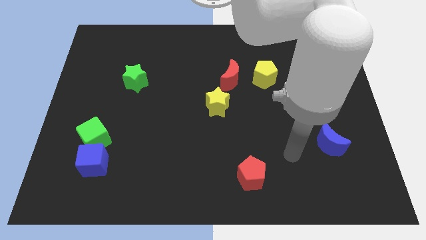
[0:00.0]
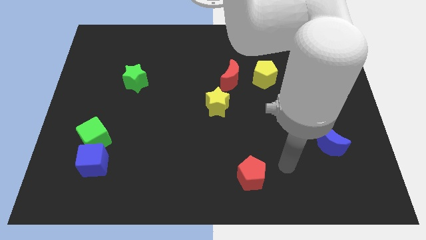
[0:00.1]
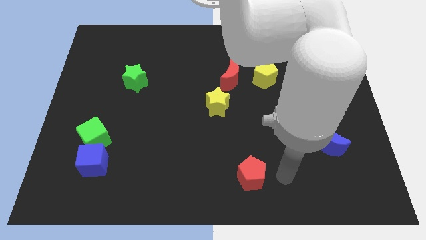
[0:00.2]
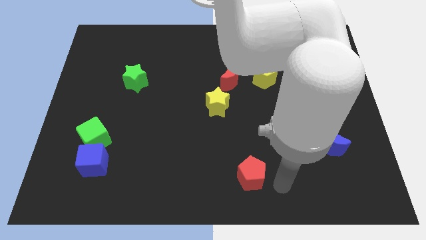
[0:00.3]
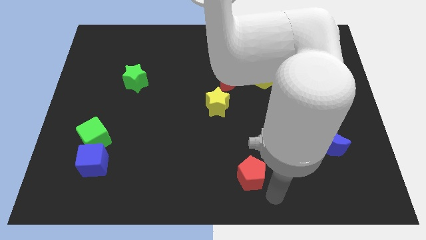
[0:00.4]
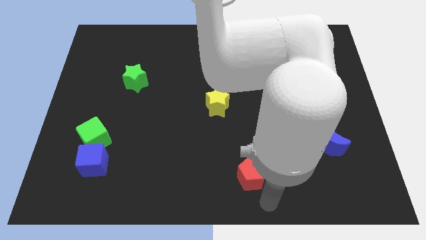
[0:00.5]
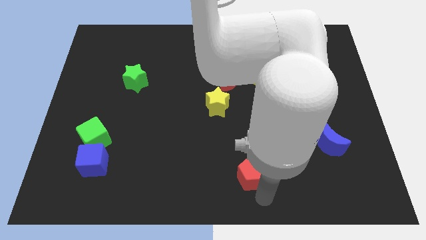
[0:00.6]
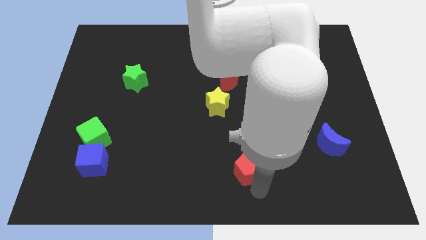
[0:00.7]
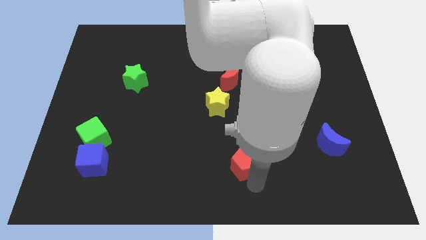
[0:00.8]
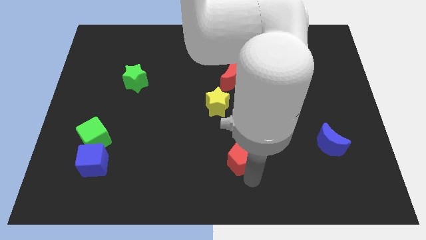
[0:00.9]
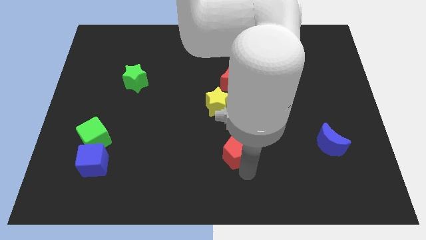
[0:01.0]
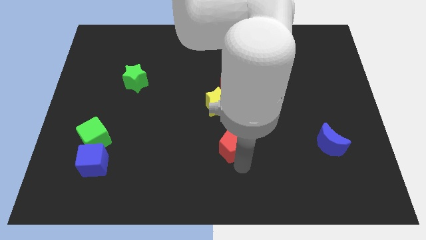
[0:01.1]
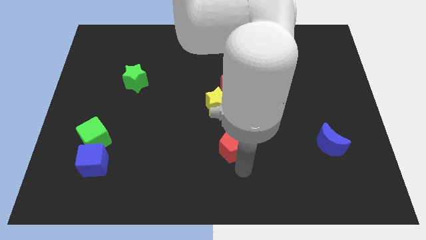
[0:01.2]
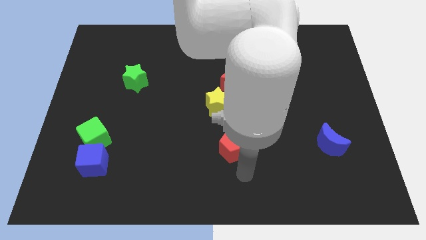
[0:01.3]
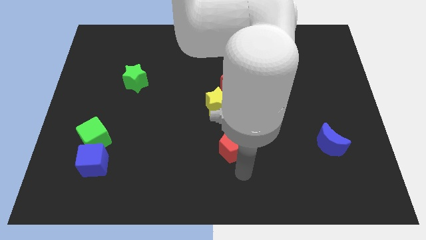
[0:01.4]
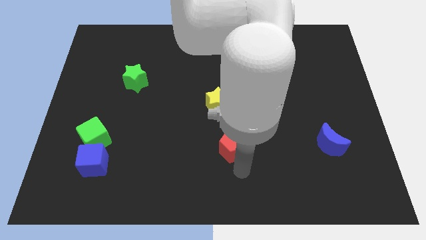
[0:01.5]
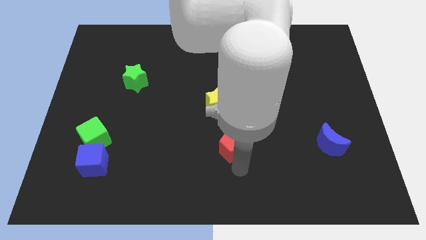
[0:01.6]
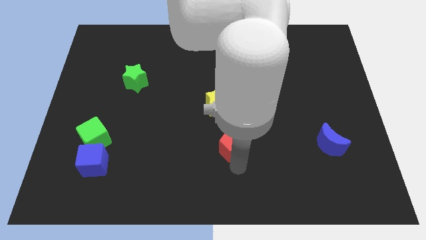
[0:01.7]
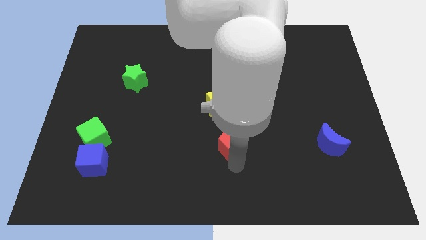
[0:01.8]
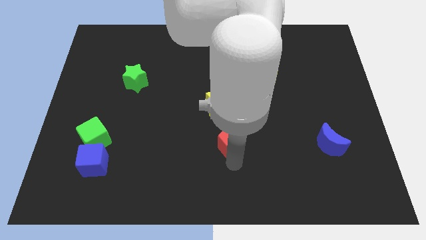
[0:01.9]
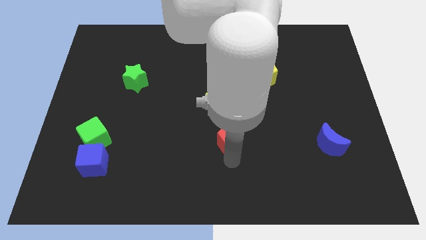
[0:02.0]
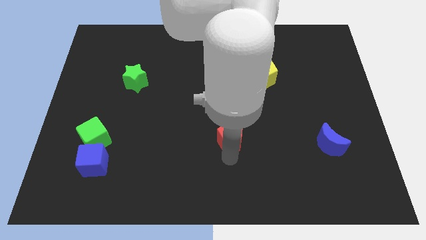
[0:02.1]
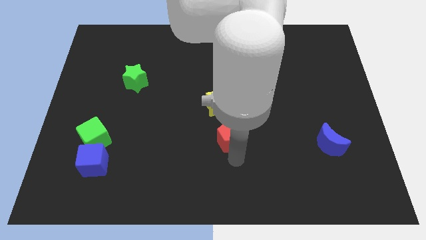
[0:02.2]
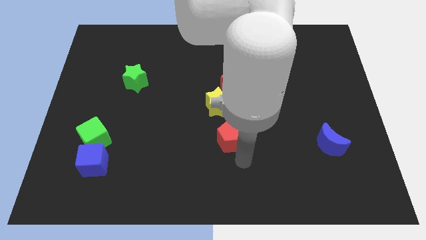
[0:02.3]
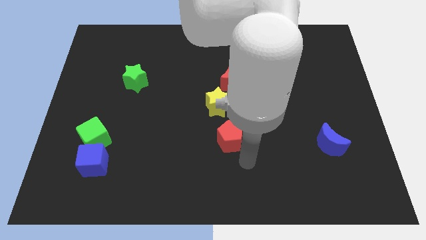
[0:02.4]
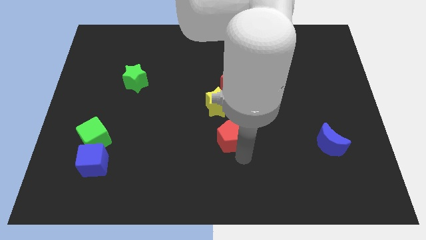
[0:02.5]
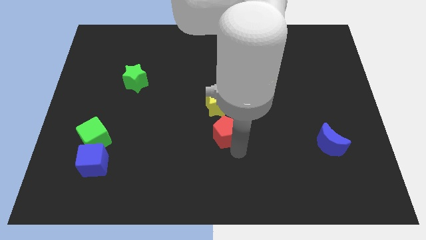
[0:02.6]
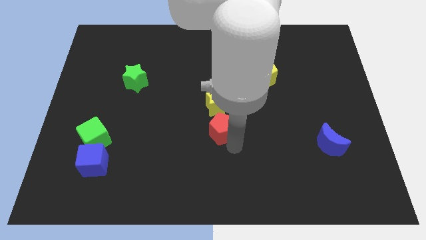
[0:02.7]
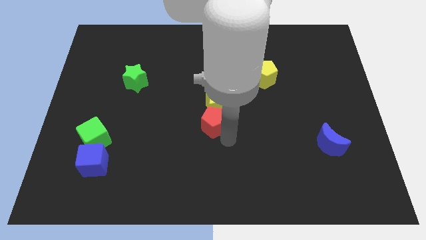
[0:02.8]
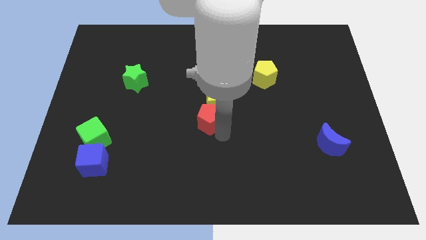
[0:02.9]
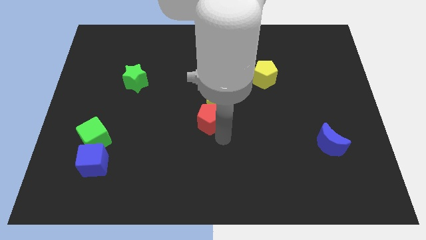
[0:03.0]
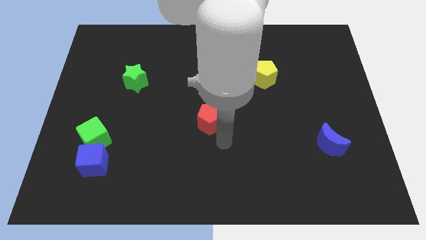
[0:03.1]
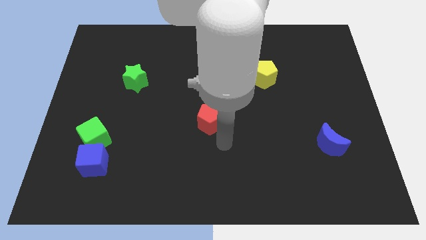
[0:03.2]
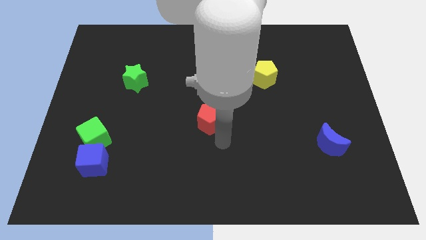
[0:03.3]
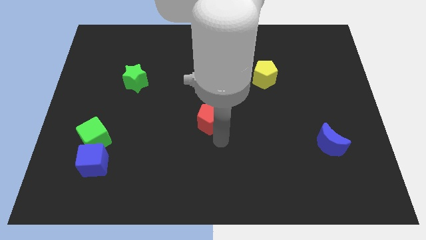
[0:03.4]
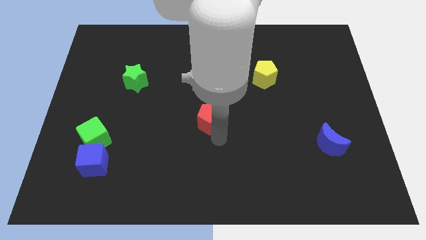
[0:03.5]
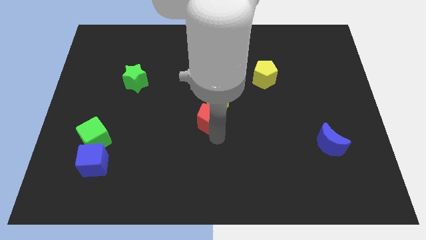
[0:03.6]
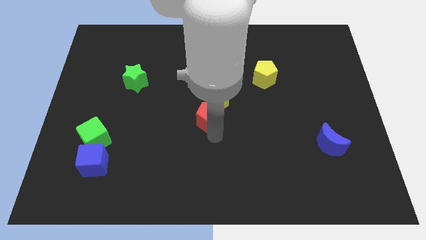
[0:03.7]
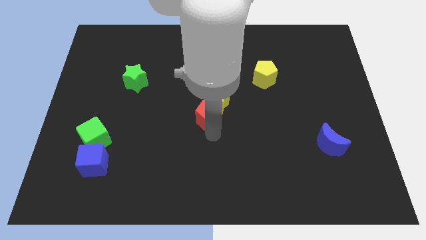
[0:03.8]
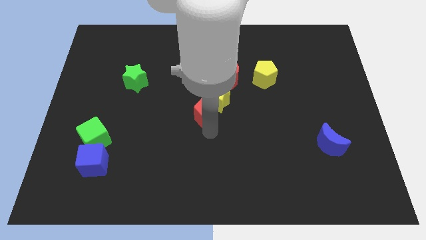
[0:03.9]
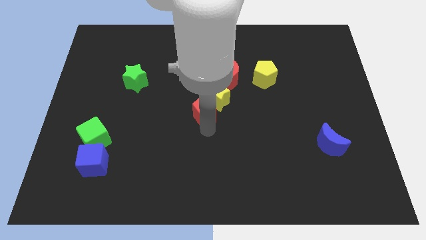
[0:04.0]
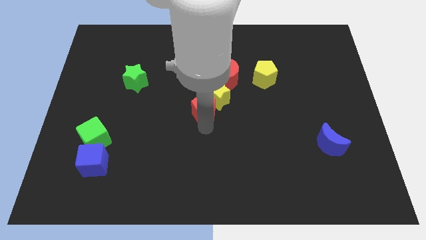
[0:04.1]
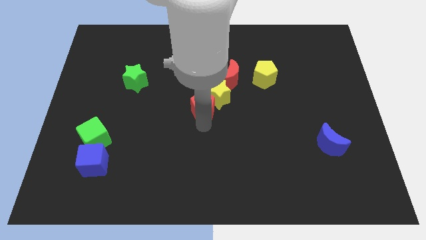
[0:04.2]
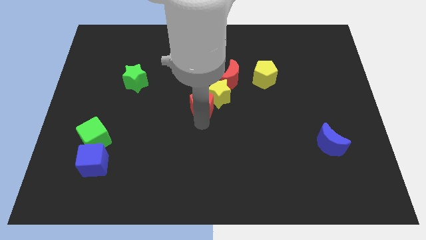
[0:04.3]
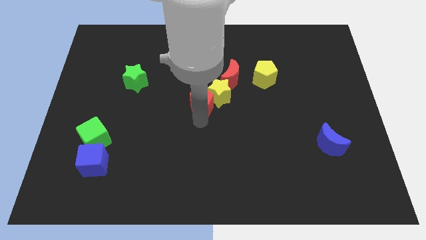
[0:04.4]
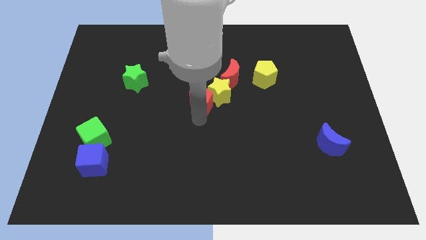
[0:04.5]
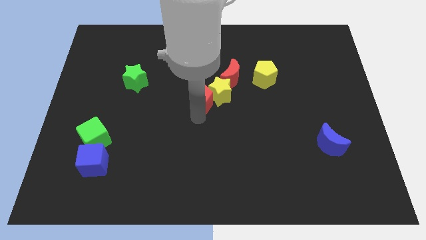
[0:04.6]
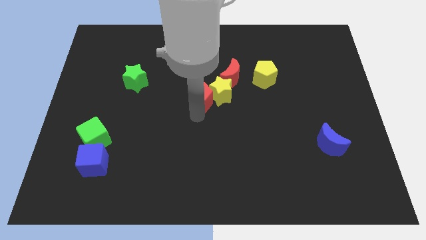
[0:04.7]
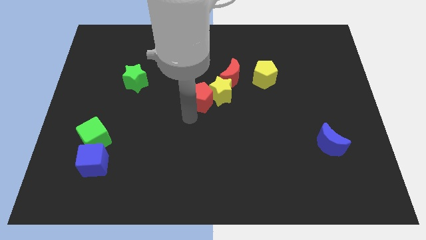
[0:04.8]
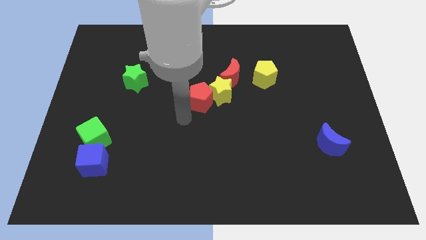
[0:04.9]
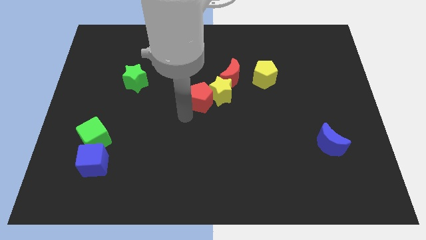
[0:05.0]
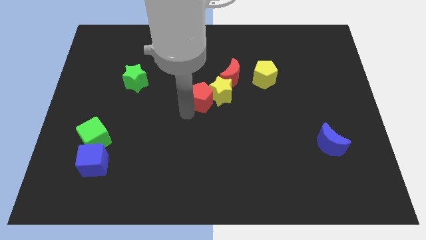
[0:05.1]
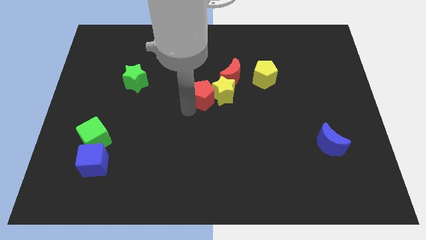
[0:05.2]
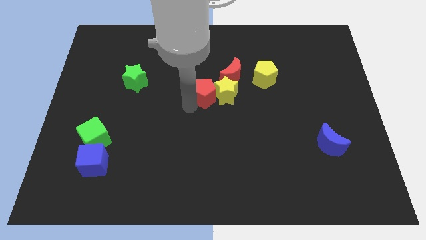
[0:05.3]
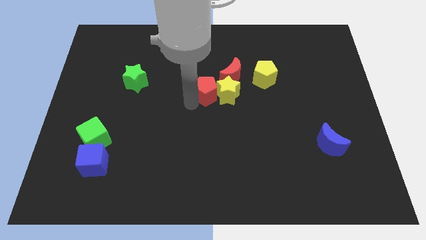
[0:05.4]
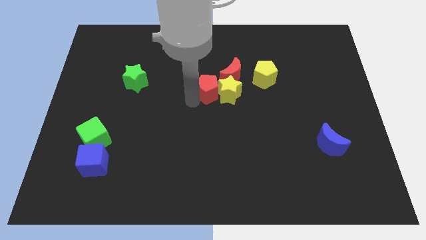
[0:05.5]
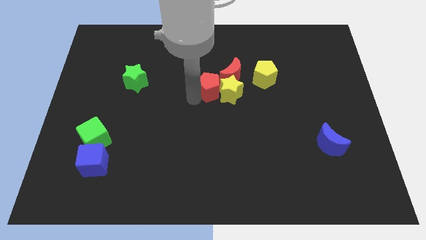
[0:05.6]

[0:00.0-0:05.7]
move the red pentagon just left of the yellow pentagon

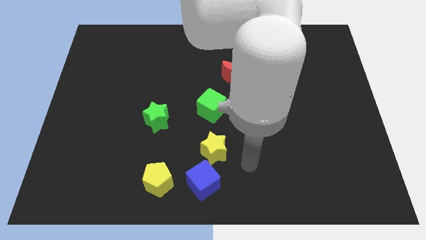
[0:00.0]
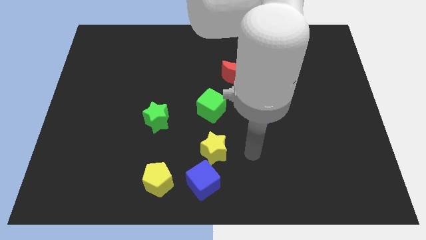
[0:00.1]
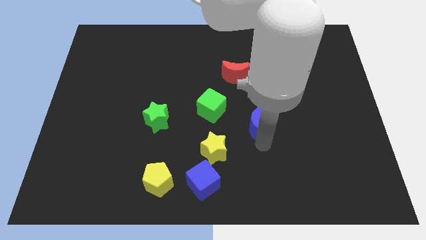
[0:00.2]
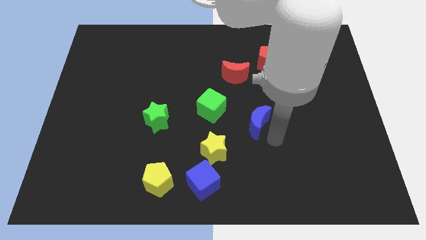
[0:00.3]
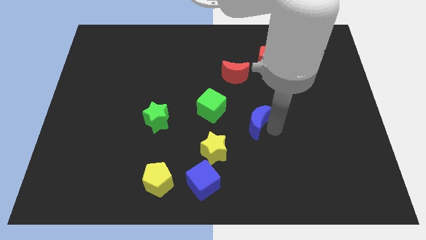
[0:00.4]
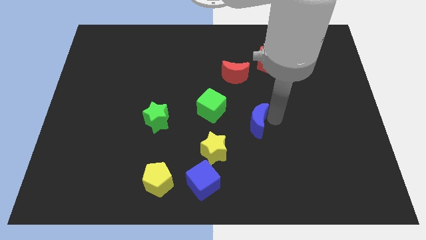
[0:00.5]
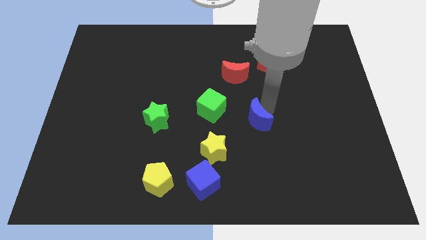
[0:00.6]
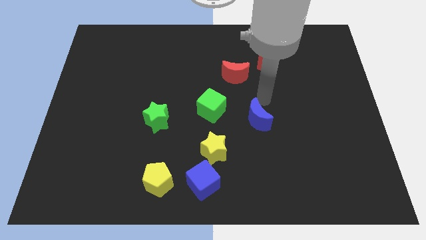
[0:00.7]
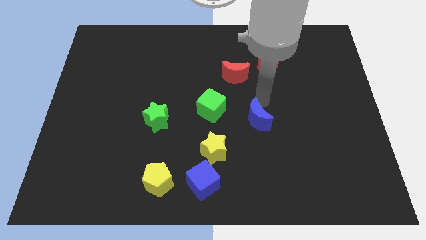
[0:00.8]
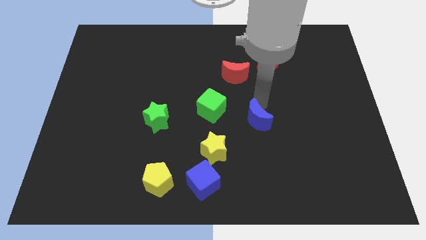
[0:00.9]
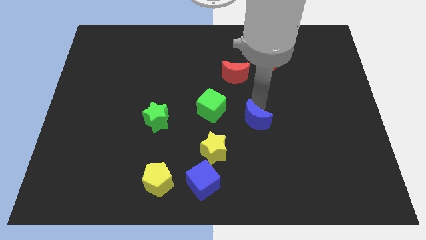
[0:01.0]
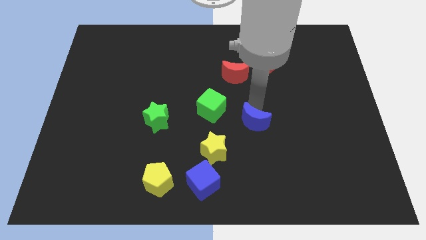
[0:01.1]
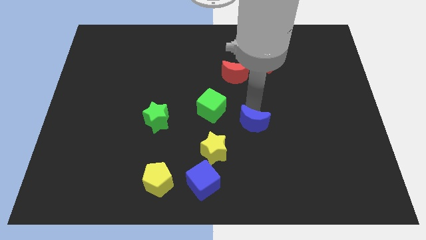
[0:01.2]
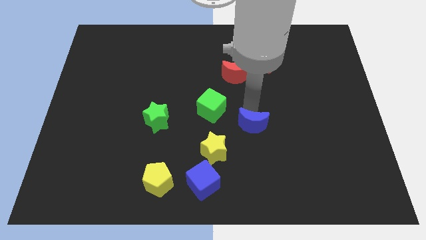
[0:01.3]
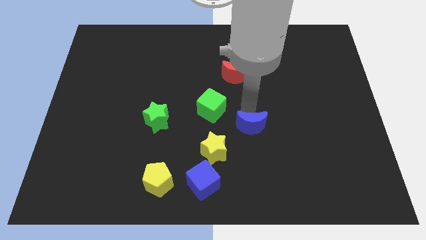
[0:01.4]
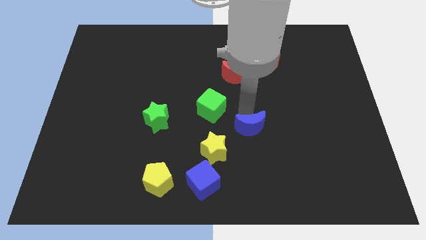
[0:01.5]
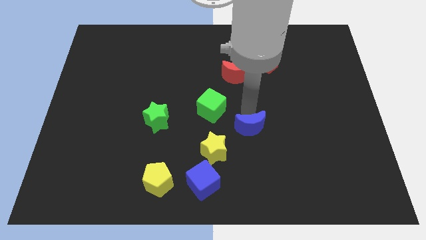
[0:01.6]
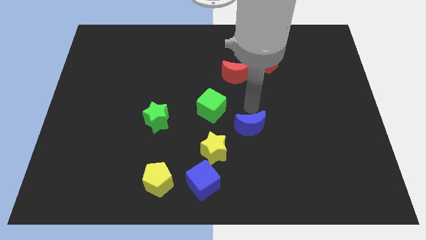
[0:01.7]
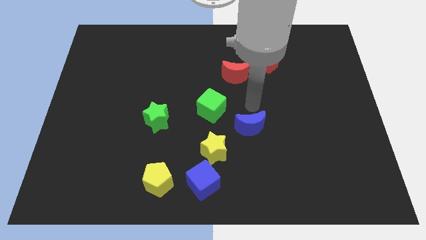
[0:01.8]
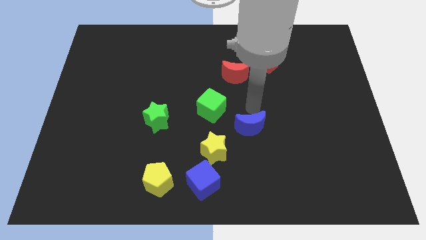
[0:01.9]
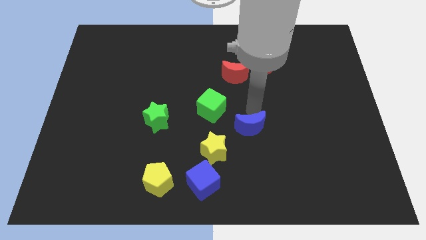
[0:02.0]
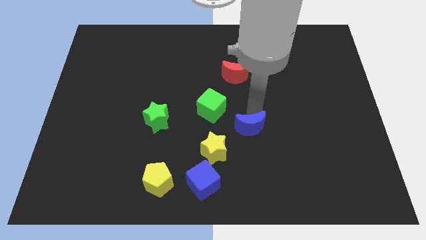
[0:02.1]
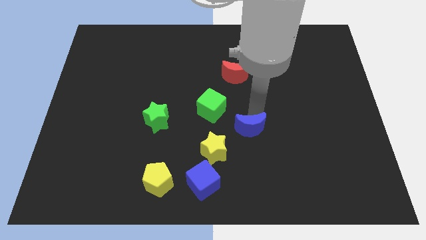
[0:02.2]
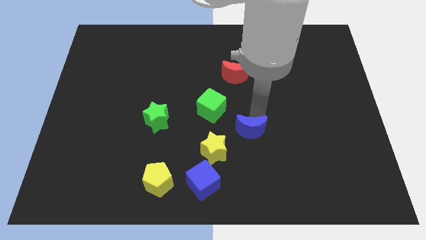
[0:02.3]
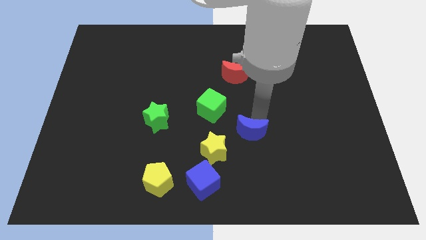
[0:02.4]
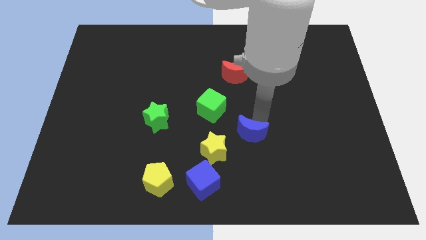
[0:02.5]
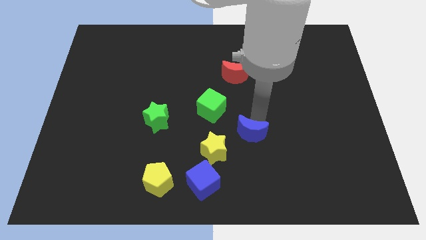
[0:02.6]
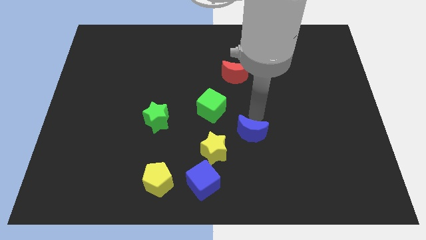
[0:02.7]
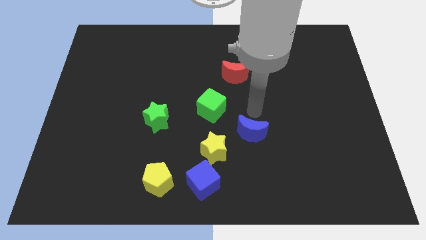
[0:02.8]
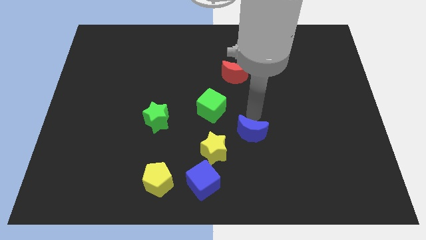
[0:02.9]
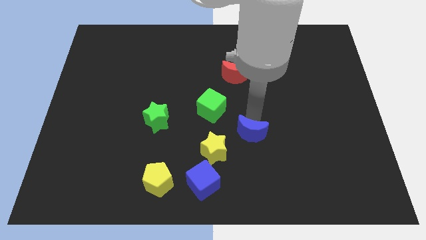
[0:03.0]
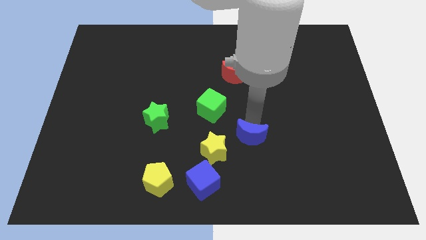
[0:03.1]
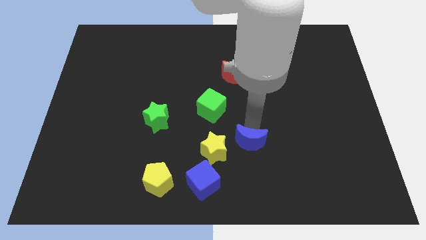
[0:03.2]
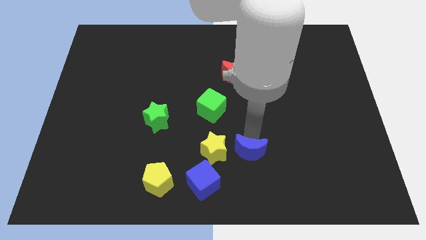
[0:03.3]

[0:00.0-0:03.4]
push the blue moon to the bottom right side of the yellow star
